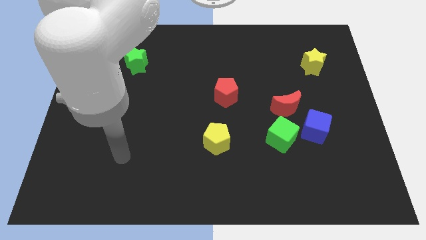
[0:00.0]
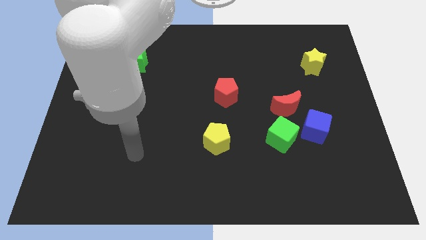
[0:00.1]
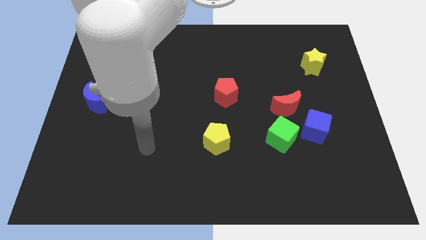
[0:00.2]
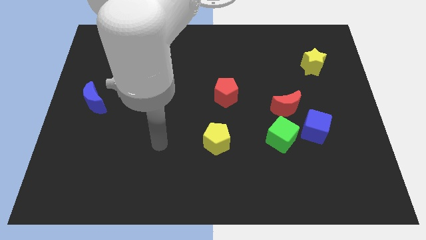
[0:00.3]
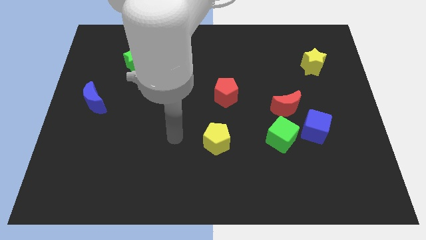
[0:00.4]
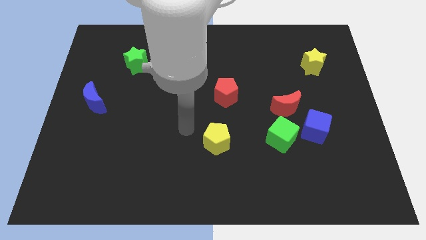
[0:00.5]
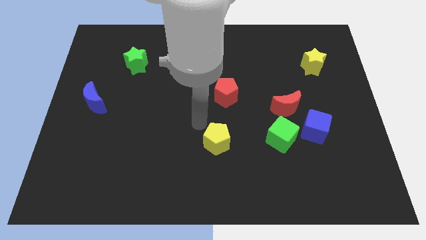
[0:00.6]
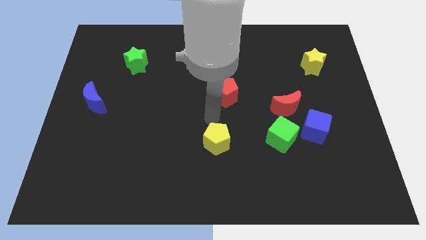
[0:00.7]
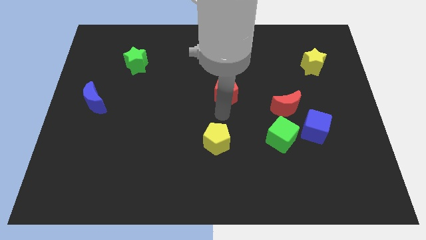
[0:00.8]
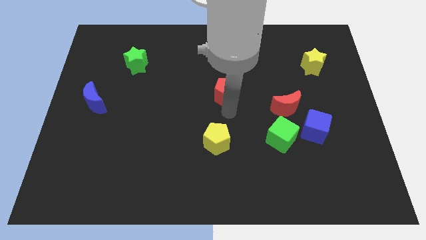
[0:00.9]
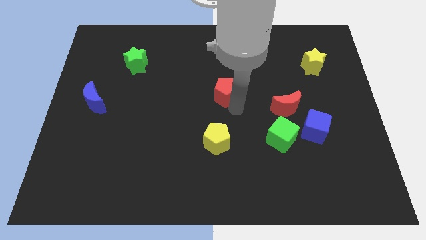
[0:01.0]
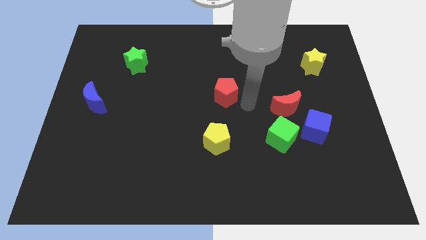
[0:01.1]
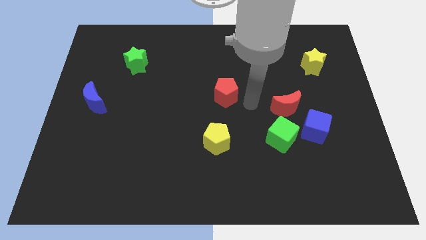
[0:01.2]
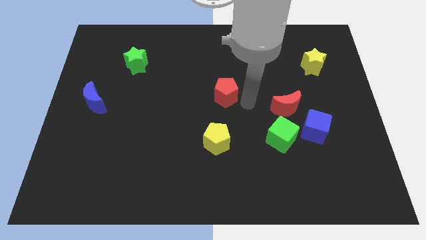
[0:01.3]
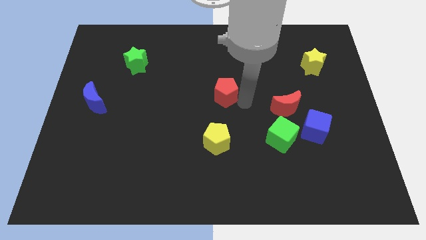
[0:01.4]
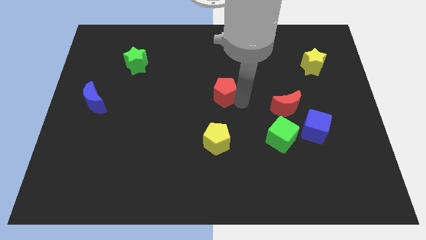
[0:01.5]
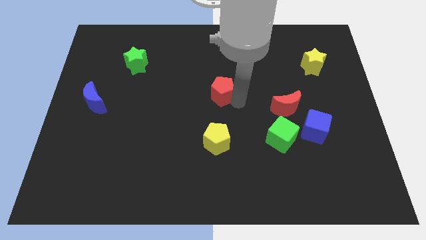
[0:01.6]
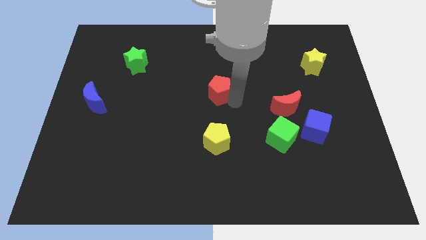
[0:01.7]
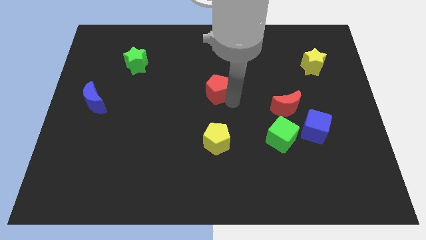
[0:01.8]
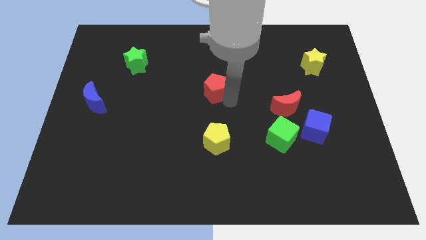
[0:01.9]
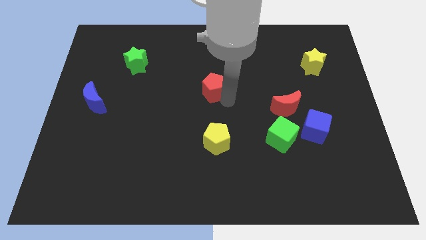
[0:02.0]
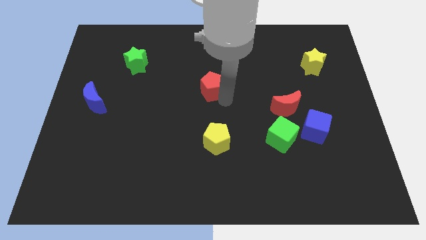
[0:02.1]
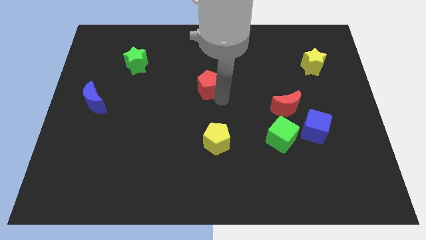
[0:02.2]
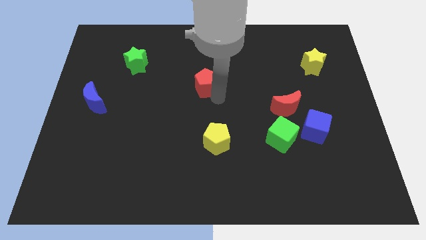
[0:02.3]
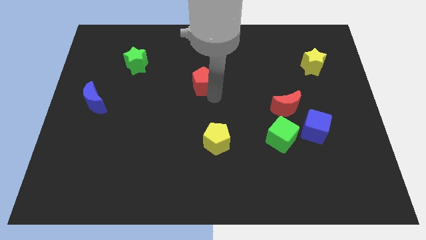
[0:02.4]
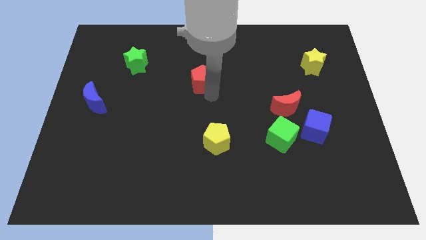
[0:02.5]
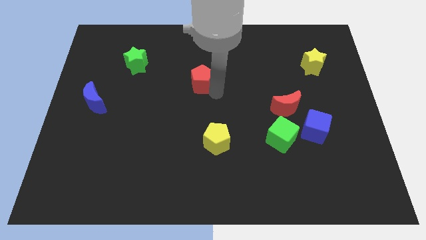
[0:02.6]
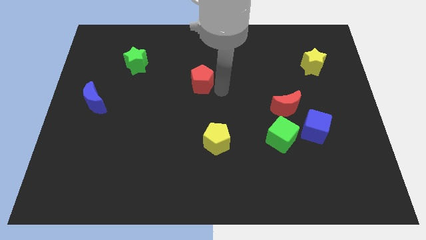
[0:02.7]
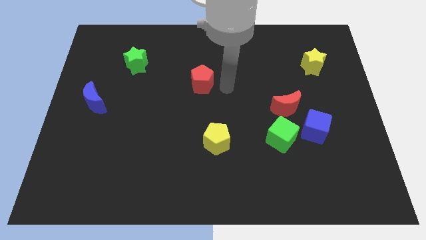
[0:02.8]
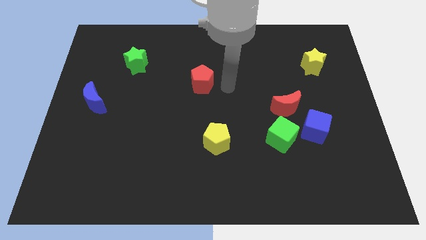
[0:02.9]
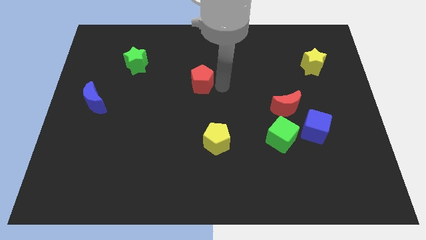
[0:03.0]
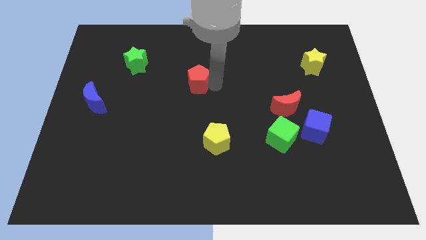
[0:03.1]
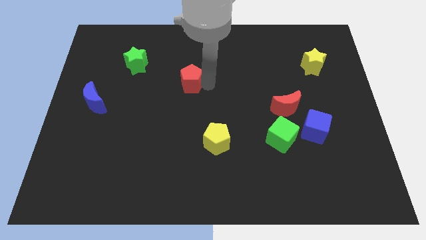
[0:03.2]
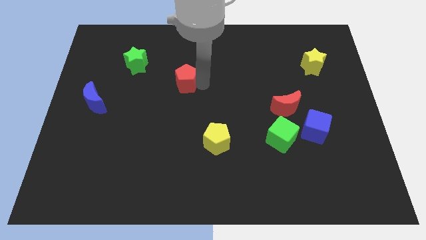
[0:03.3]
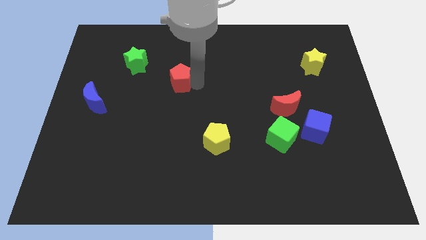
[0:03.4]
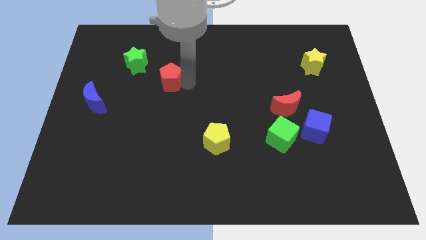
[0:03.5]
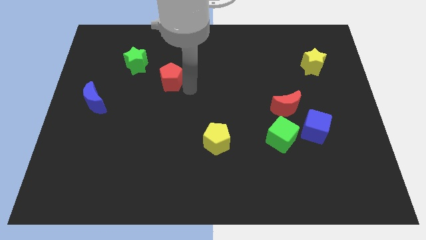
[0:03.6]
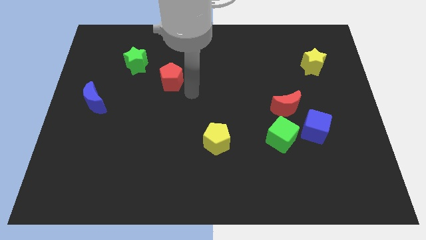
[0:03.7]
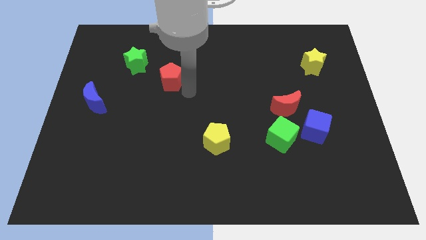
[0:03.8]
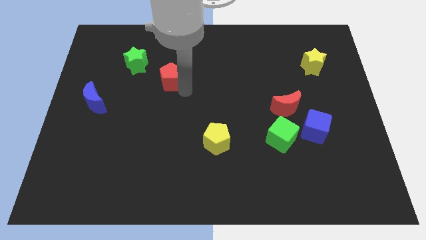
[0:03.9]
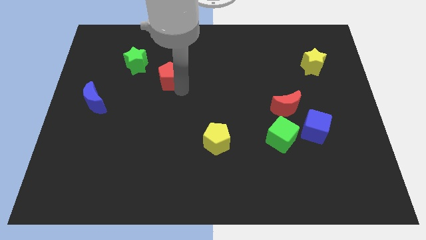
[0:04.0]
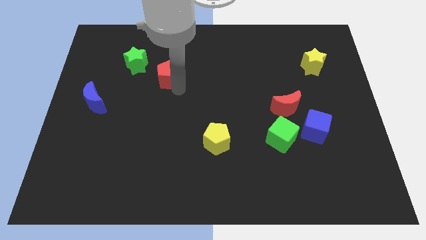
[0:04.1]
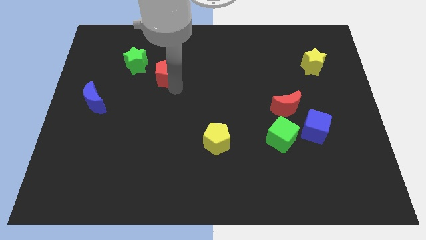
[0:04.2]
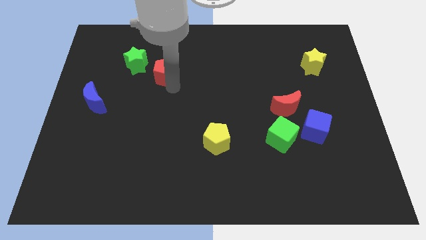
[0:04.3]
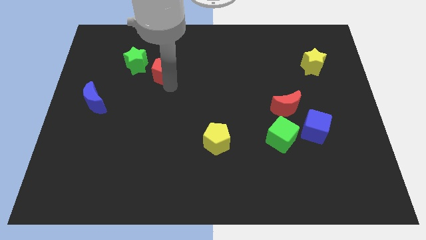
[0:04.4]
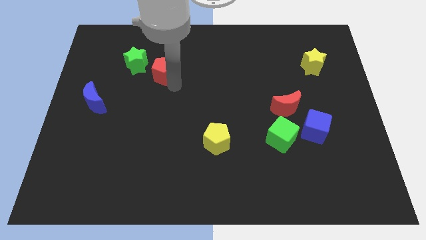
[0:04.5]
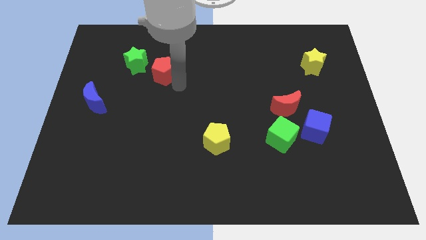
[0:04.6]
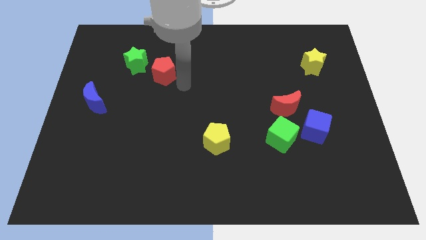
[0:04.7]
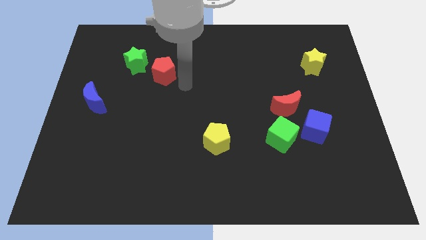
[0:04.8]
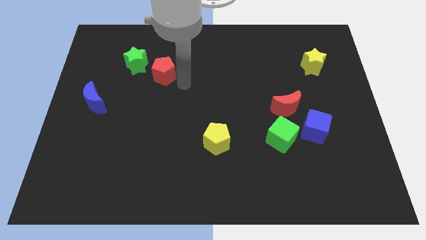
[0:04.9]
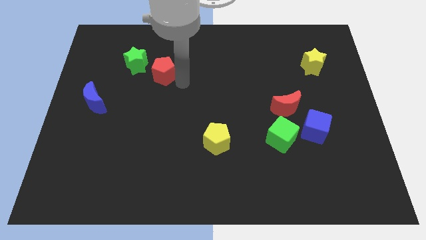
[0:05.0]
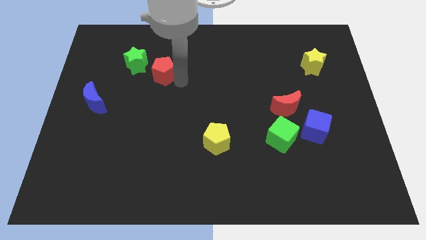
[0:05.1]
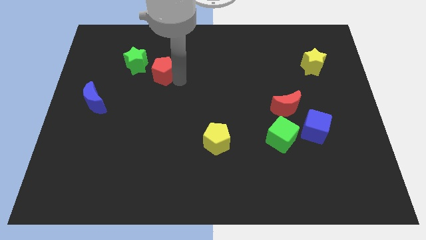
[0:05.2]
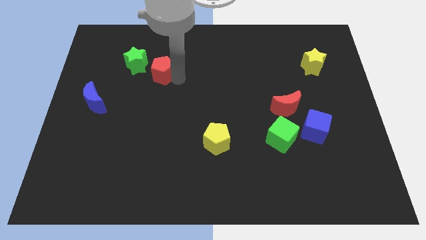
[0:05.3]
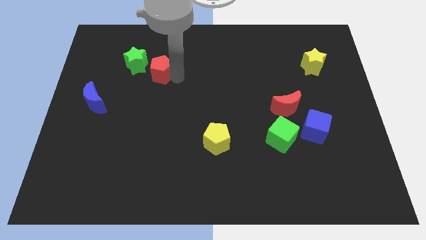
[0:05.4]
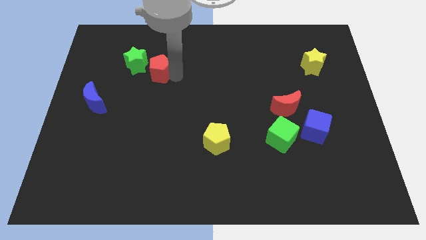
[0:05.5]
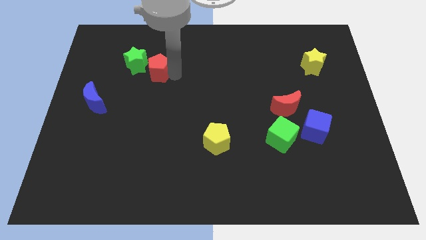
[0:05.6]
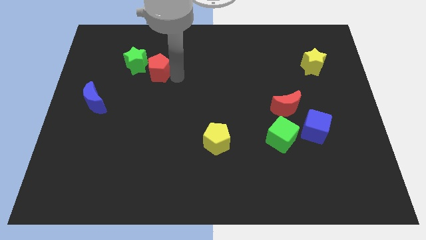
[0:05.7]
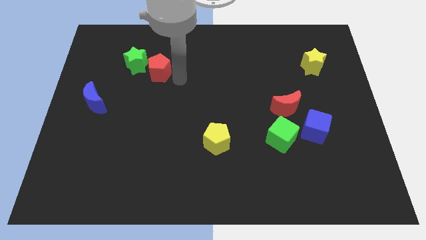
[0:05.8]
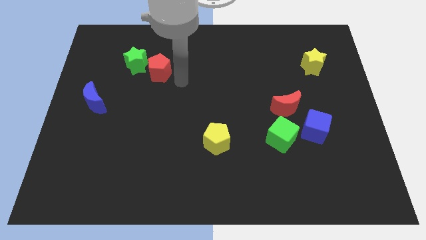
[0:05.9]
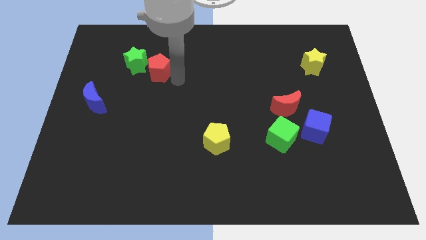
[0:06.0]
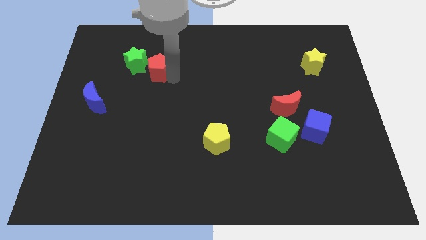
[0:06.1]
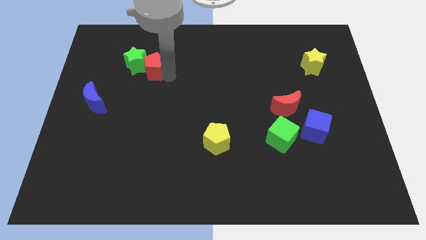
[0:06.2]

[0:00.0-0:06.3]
move the red pentagon towards the green star
